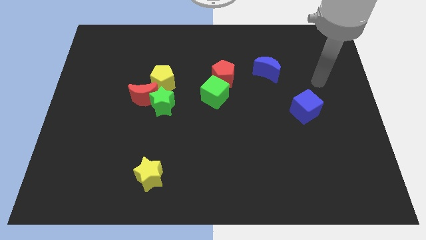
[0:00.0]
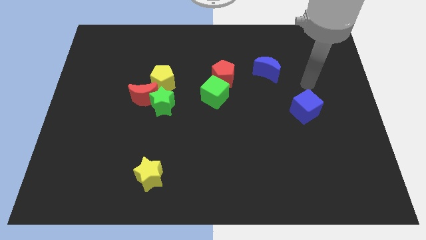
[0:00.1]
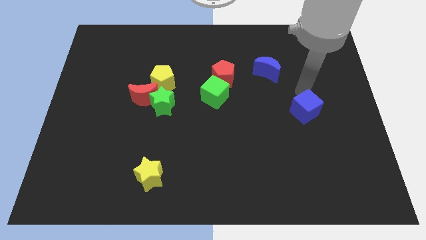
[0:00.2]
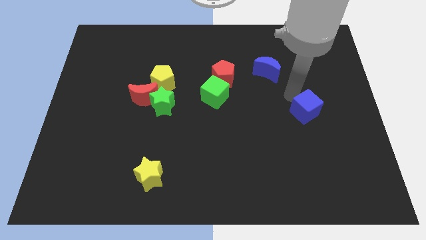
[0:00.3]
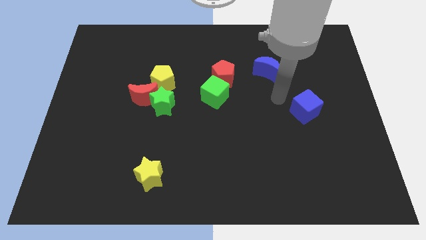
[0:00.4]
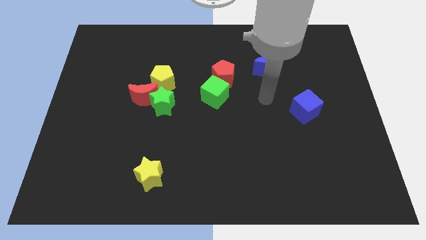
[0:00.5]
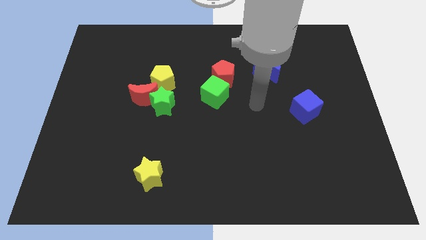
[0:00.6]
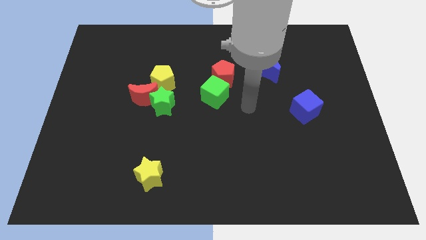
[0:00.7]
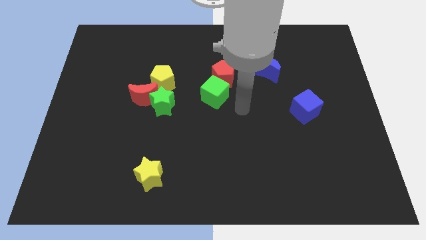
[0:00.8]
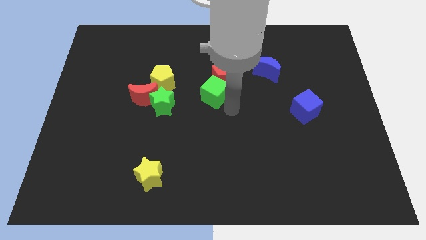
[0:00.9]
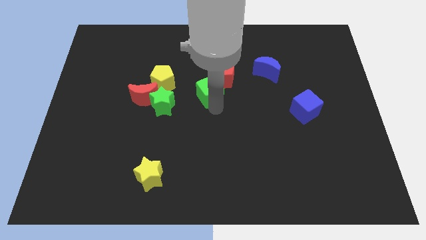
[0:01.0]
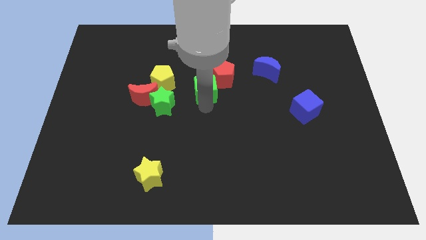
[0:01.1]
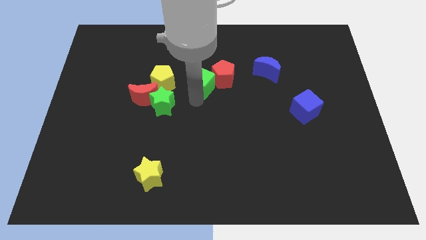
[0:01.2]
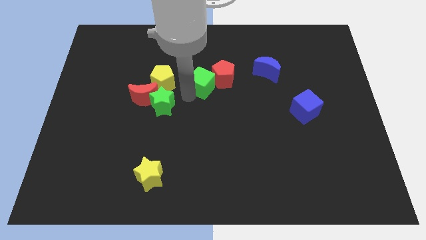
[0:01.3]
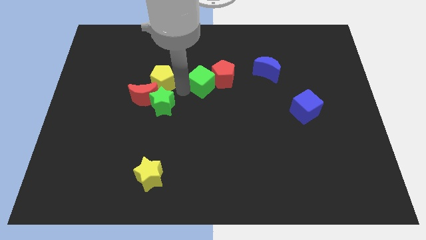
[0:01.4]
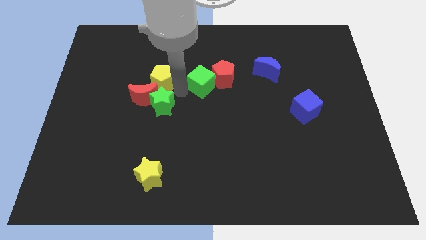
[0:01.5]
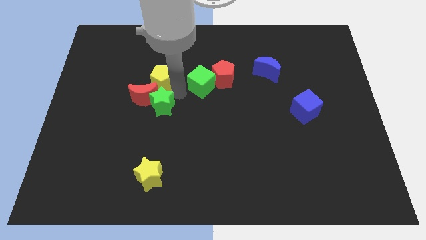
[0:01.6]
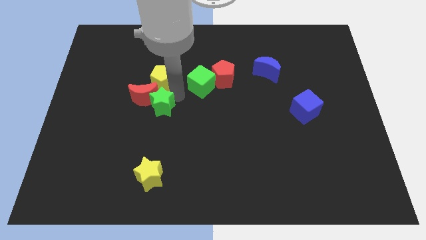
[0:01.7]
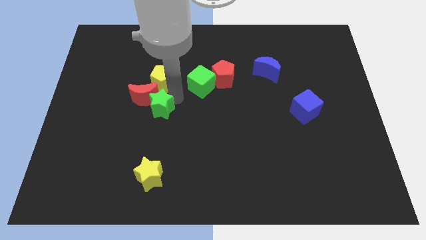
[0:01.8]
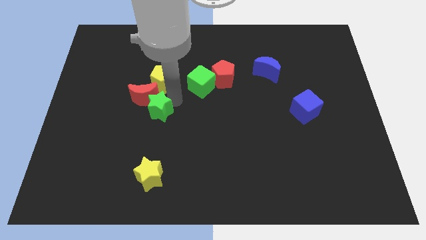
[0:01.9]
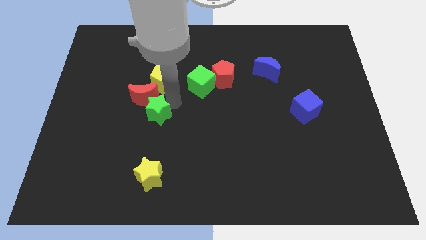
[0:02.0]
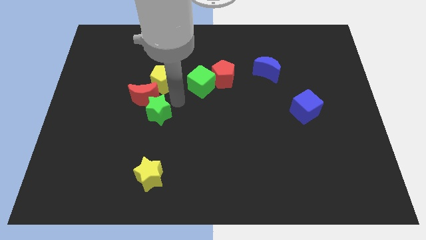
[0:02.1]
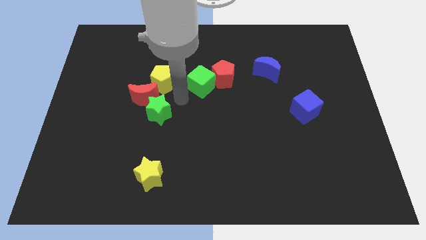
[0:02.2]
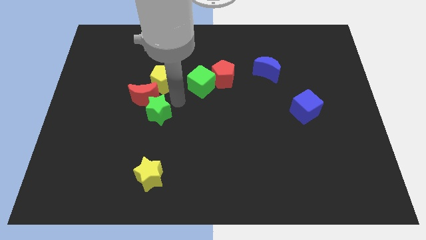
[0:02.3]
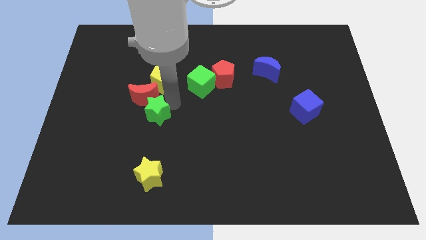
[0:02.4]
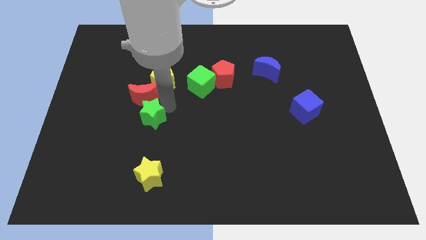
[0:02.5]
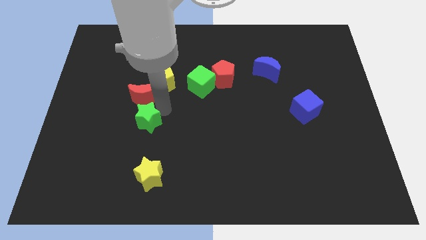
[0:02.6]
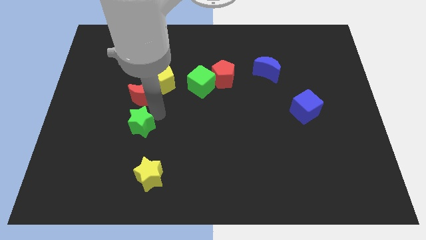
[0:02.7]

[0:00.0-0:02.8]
slide the green star slightly diagonally down and left

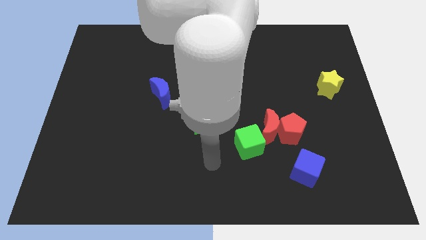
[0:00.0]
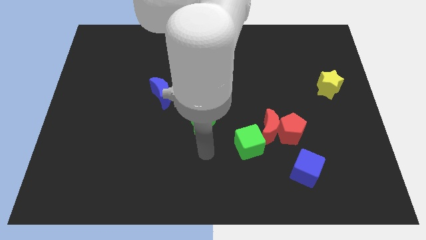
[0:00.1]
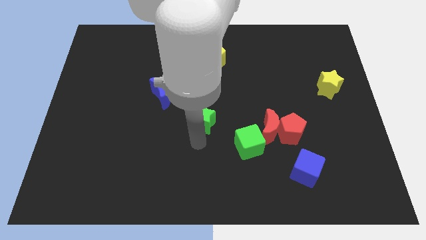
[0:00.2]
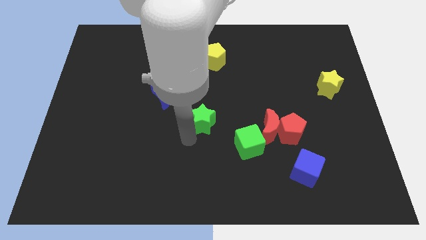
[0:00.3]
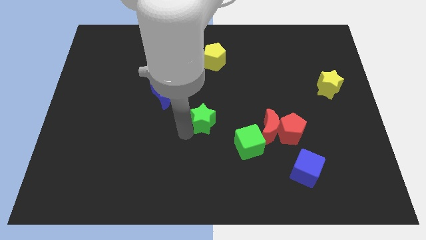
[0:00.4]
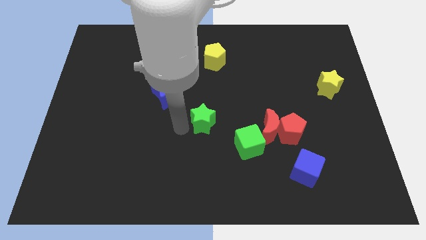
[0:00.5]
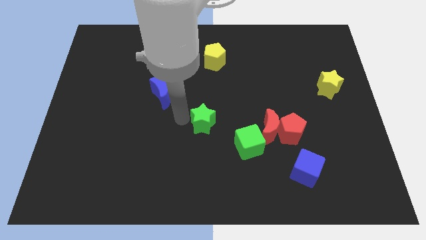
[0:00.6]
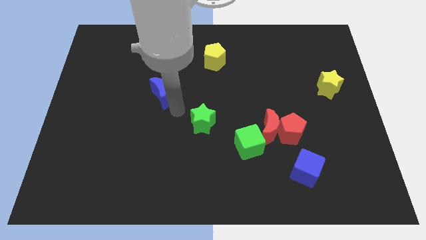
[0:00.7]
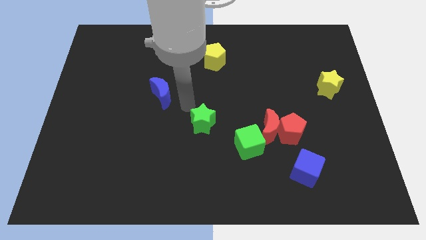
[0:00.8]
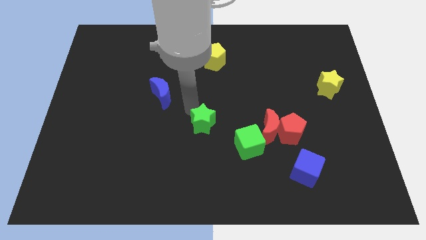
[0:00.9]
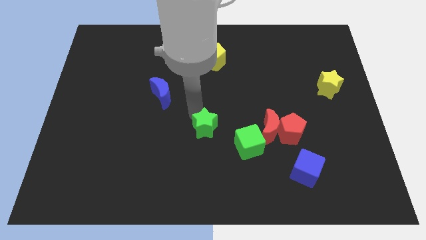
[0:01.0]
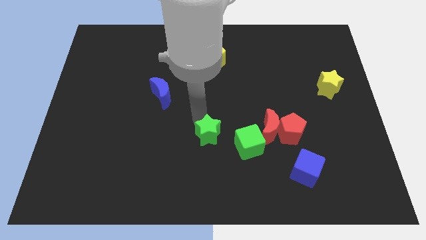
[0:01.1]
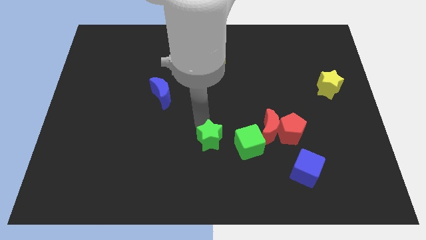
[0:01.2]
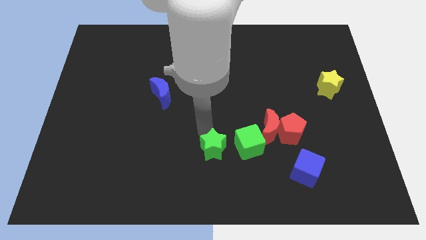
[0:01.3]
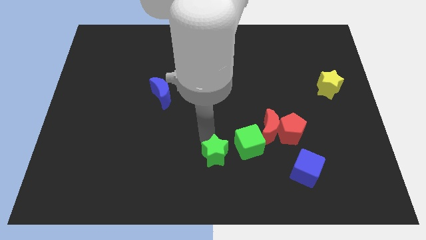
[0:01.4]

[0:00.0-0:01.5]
slightly move the green star down and to the right

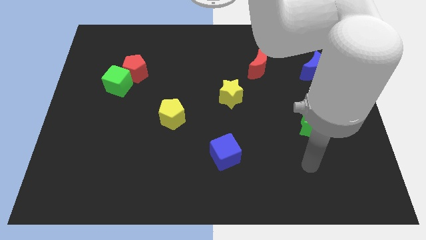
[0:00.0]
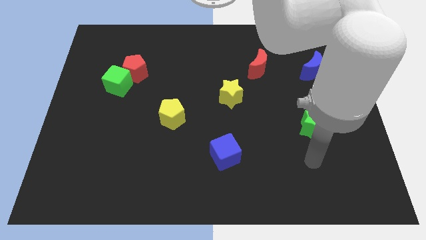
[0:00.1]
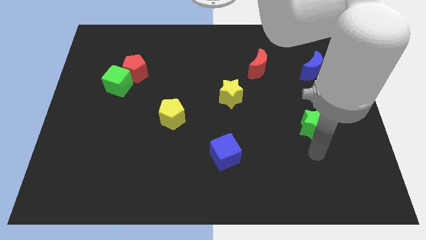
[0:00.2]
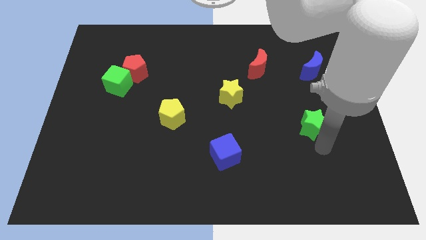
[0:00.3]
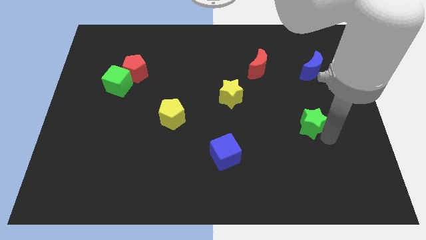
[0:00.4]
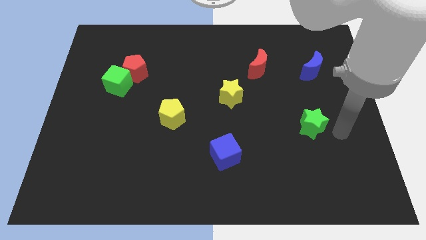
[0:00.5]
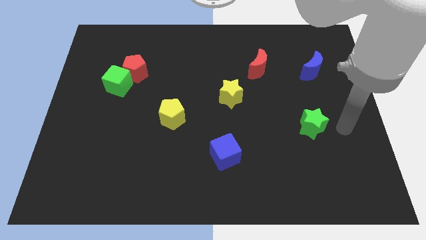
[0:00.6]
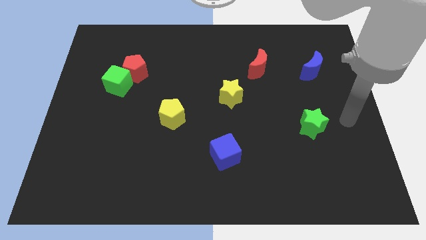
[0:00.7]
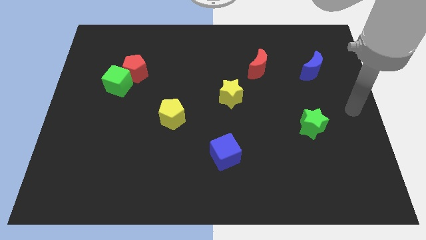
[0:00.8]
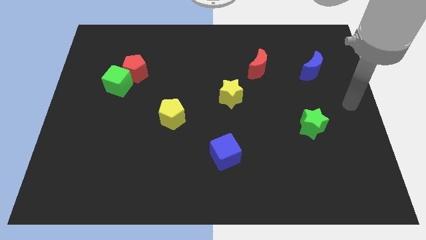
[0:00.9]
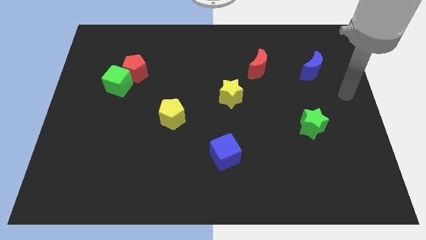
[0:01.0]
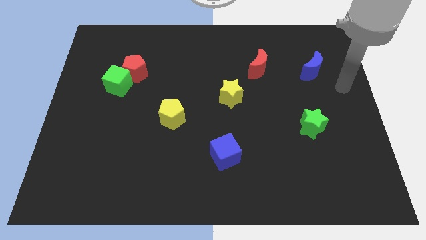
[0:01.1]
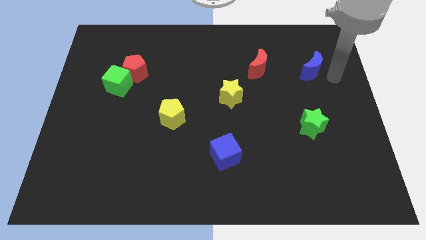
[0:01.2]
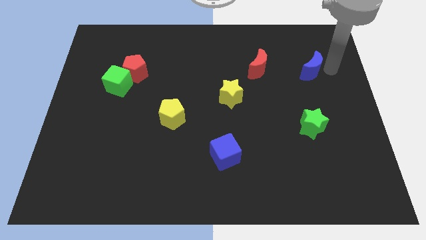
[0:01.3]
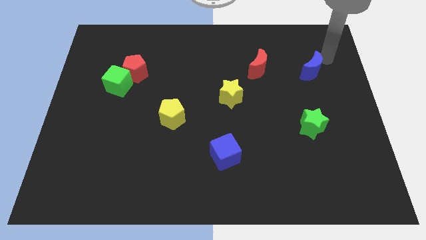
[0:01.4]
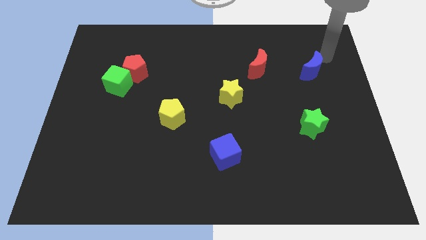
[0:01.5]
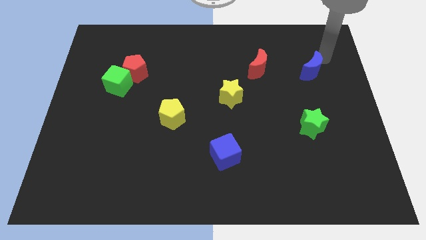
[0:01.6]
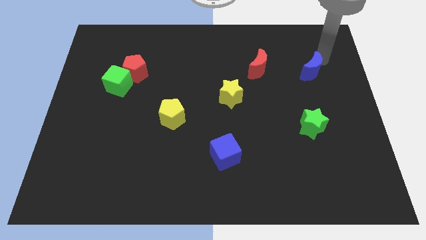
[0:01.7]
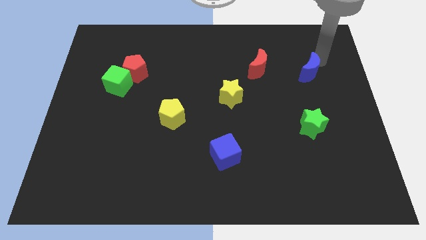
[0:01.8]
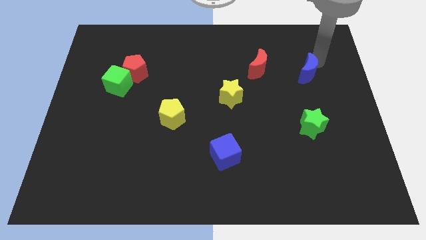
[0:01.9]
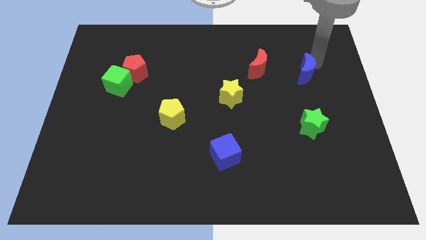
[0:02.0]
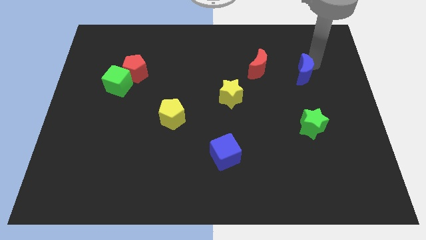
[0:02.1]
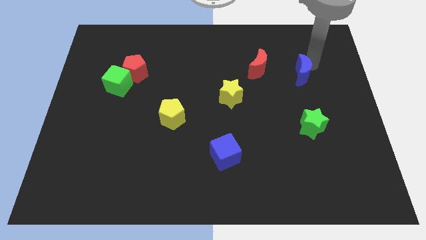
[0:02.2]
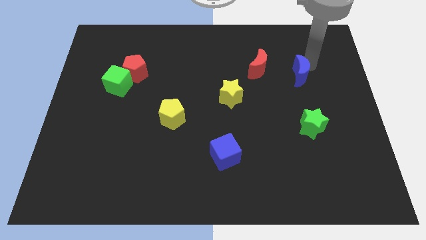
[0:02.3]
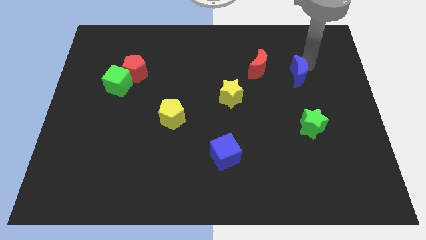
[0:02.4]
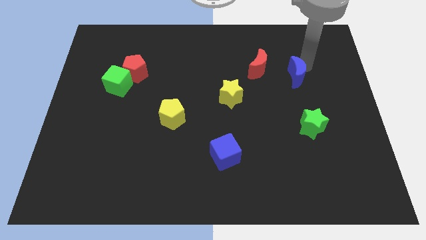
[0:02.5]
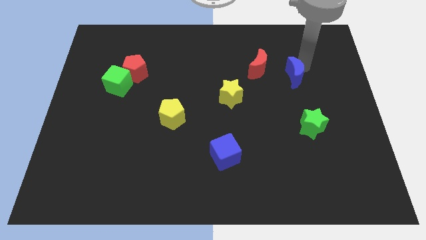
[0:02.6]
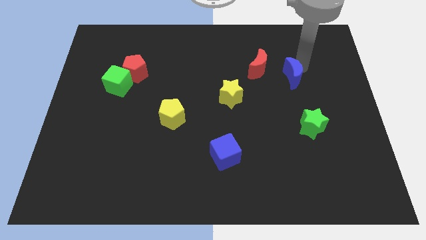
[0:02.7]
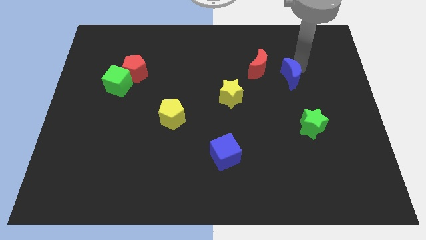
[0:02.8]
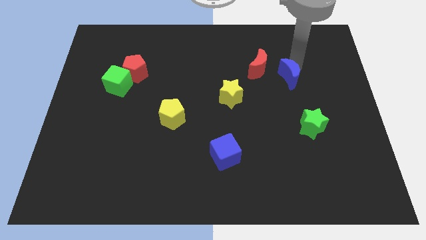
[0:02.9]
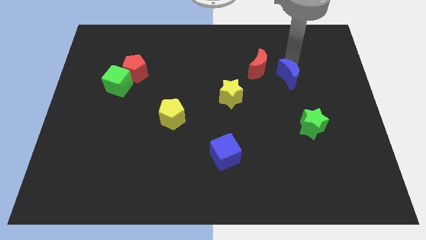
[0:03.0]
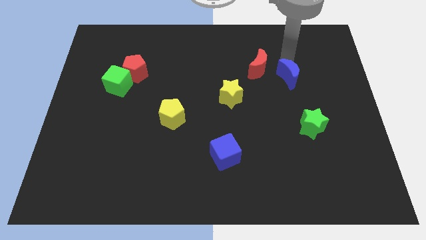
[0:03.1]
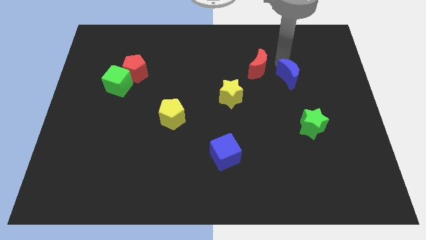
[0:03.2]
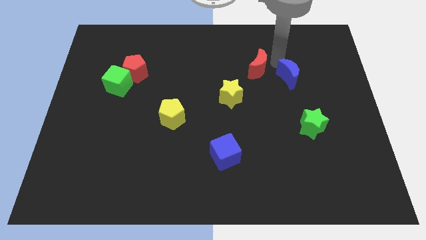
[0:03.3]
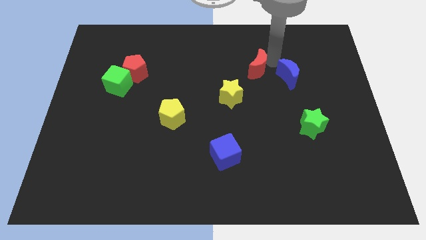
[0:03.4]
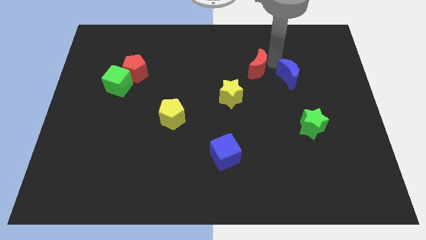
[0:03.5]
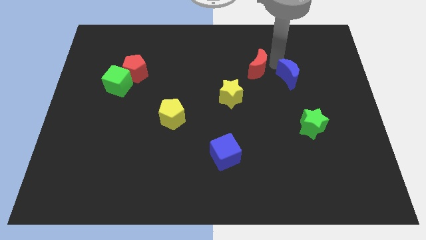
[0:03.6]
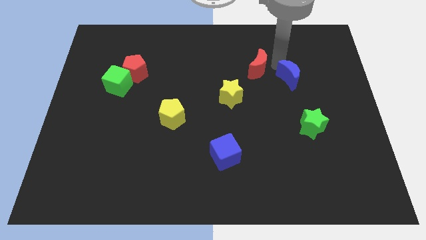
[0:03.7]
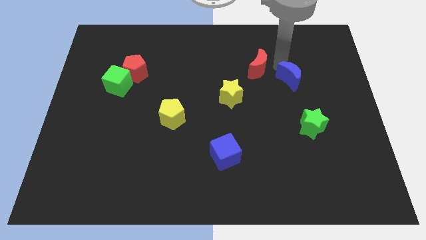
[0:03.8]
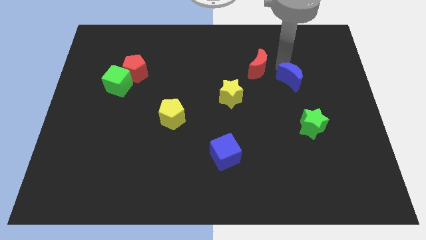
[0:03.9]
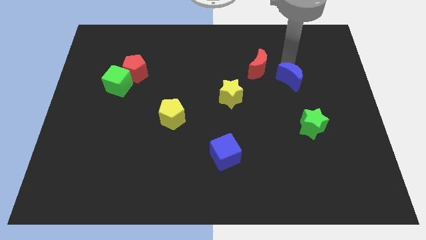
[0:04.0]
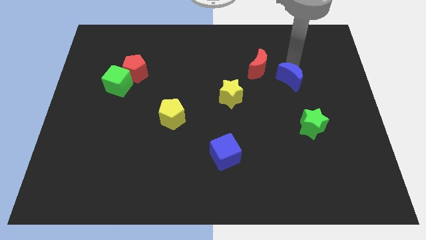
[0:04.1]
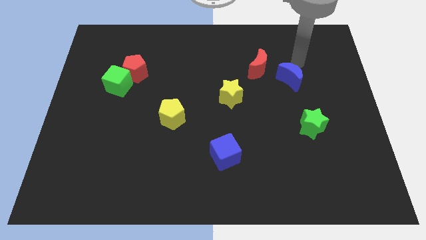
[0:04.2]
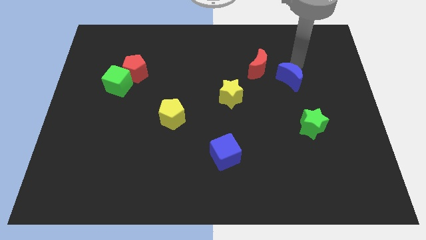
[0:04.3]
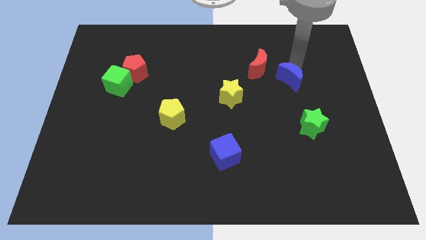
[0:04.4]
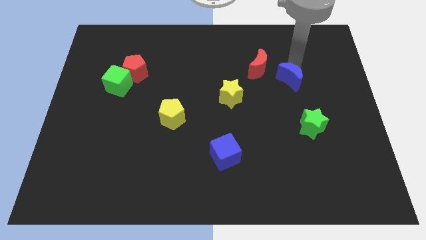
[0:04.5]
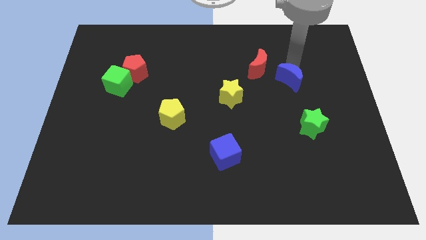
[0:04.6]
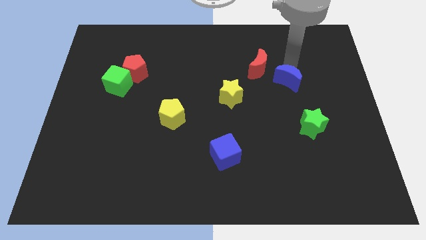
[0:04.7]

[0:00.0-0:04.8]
slightly push the blue moon diagonally down and left
